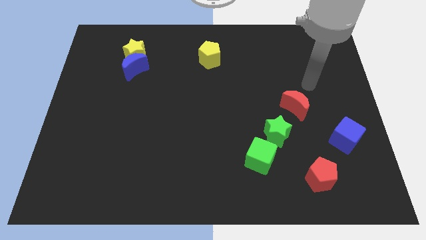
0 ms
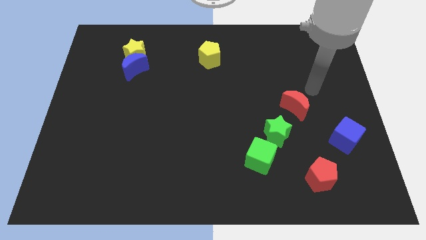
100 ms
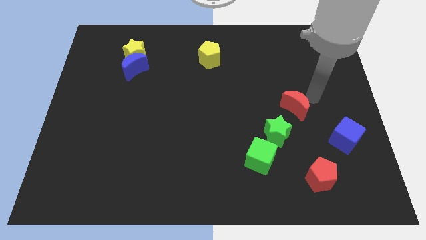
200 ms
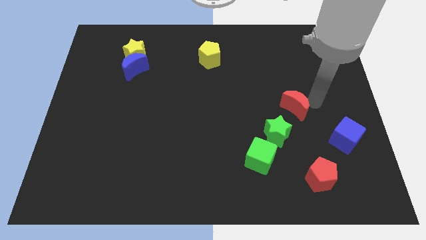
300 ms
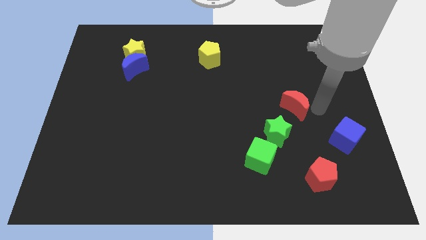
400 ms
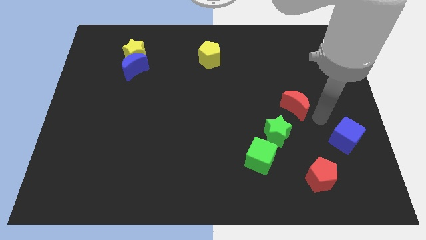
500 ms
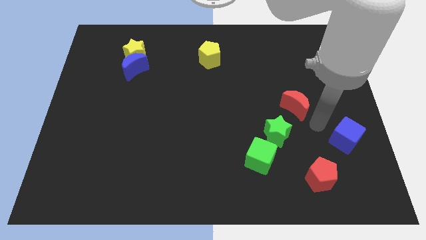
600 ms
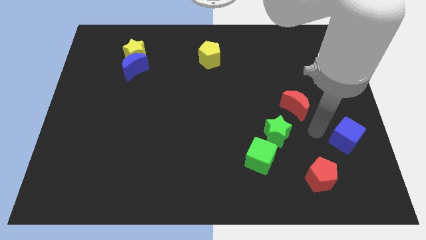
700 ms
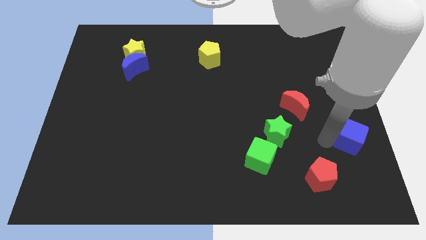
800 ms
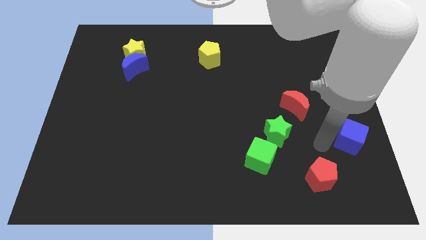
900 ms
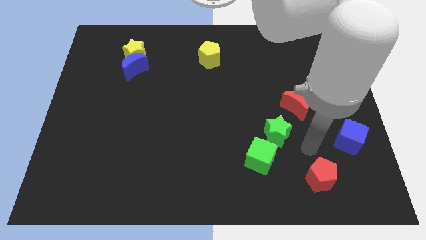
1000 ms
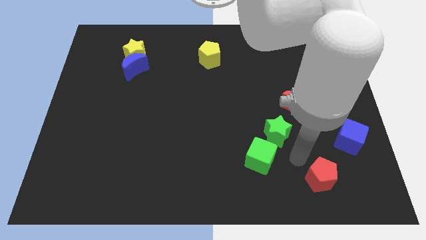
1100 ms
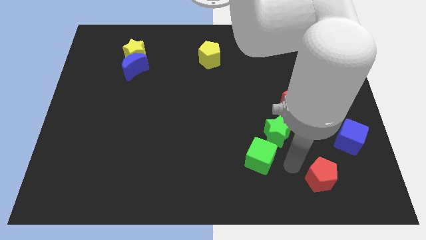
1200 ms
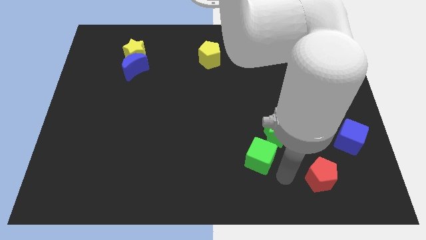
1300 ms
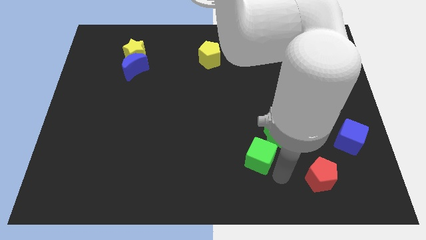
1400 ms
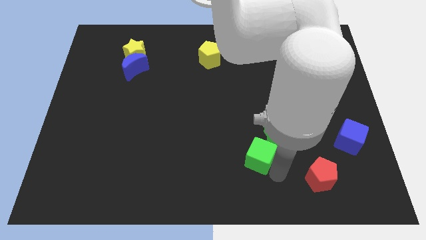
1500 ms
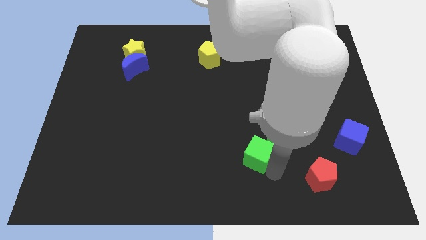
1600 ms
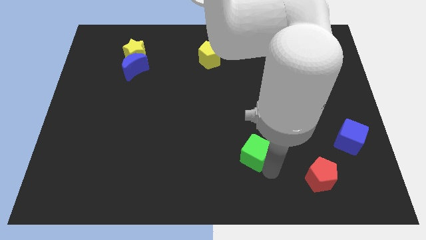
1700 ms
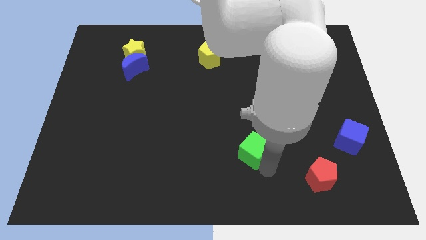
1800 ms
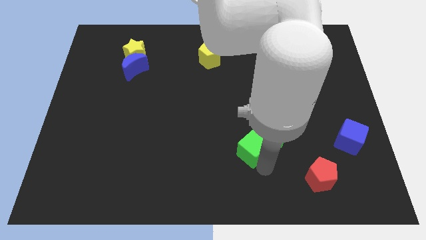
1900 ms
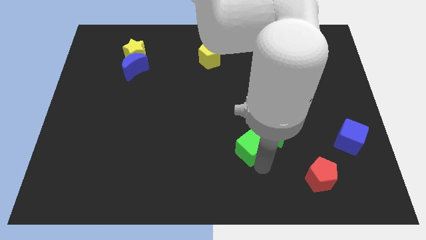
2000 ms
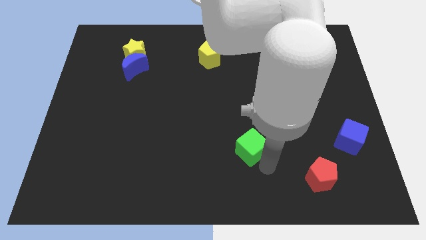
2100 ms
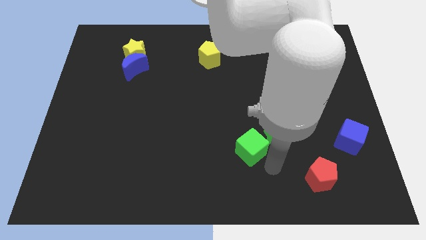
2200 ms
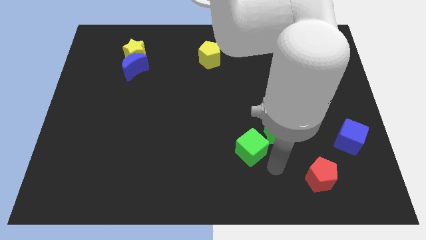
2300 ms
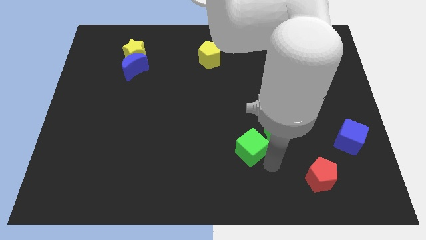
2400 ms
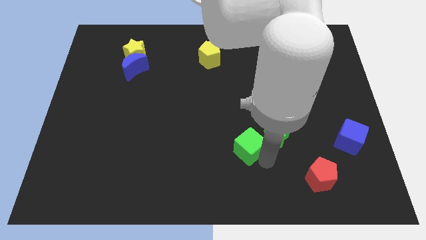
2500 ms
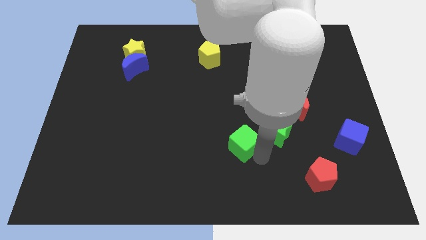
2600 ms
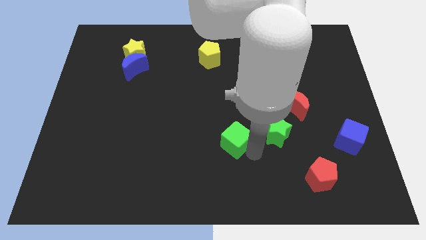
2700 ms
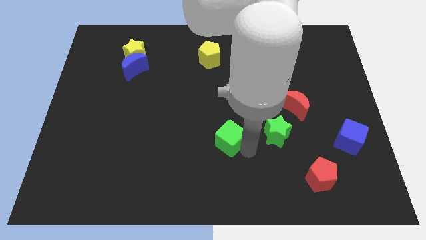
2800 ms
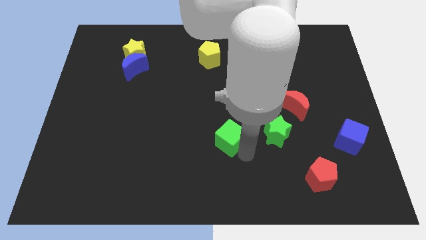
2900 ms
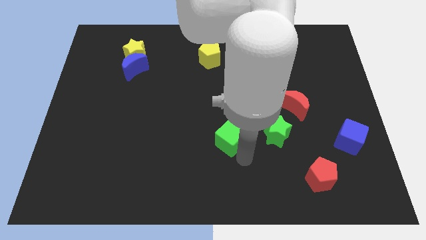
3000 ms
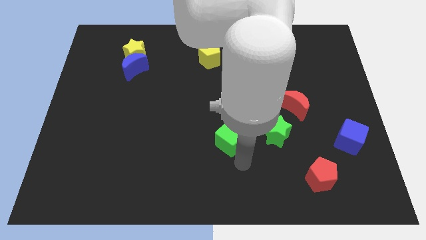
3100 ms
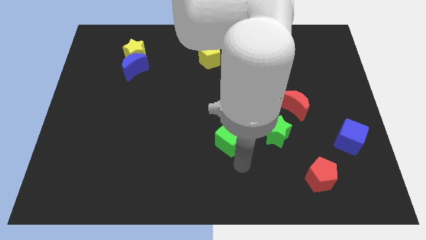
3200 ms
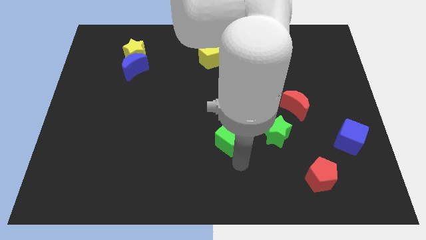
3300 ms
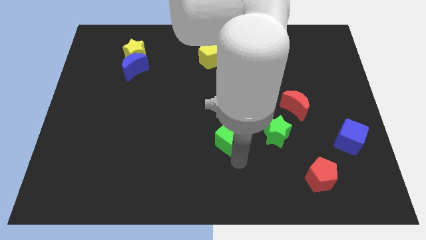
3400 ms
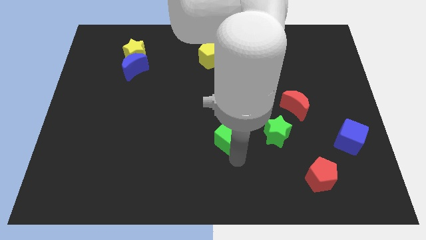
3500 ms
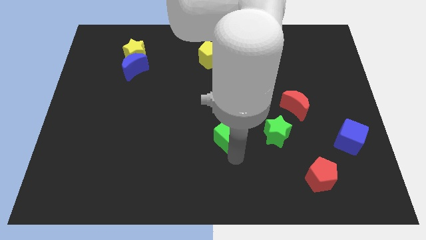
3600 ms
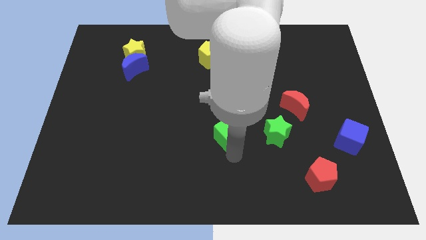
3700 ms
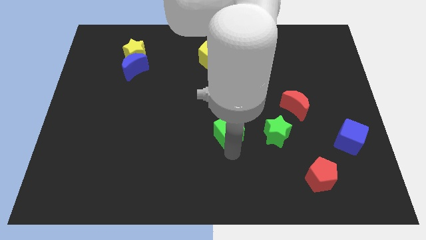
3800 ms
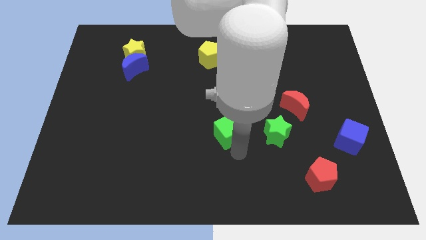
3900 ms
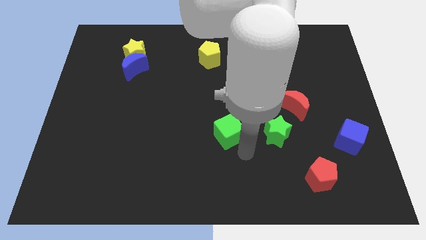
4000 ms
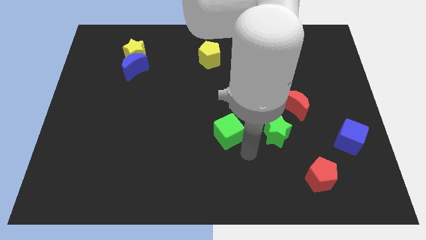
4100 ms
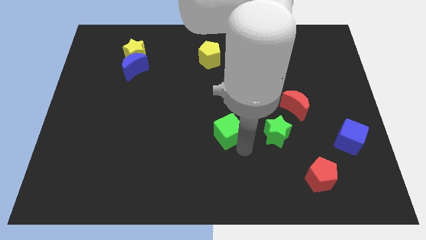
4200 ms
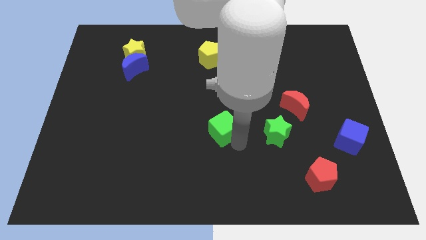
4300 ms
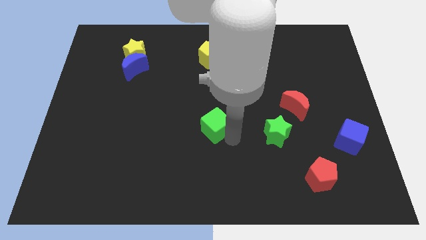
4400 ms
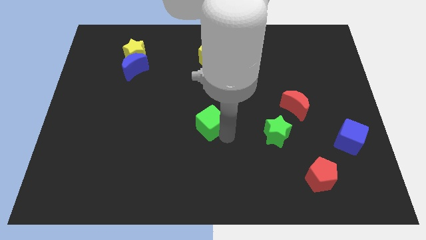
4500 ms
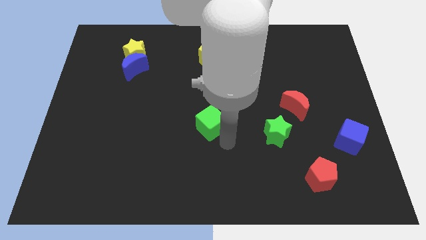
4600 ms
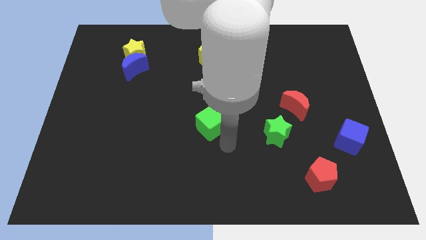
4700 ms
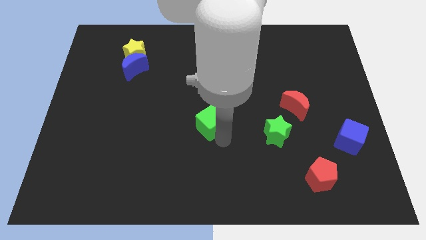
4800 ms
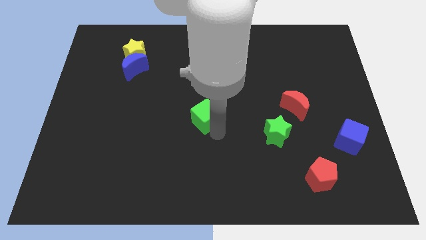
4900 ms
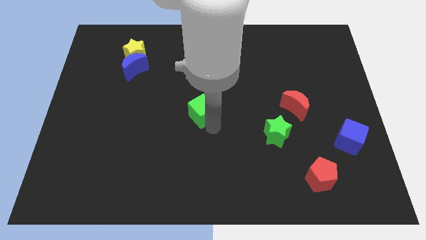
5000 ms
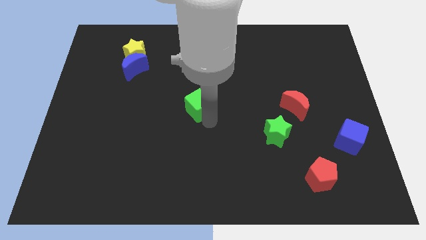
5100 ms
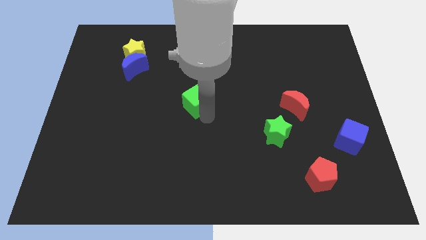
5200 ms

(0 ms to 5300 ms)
move the green cube diagonally up and to the left

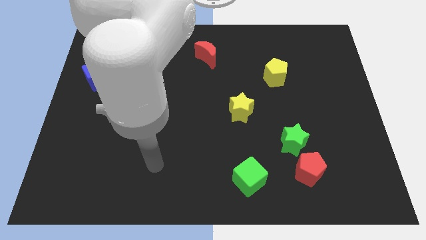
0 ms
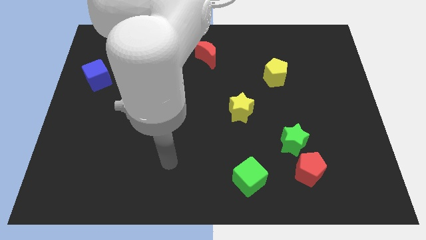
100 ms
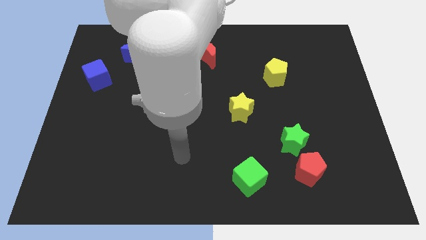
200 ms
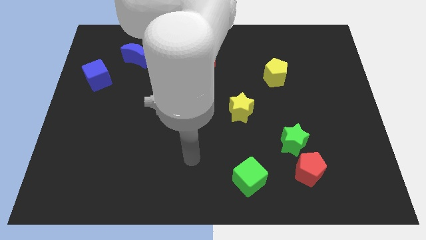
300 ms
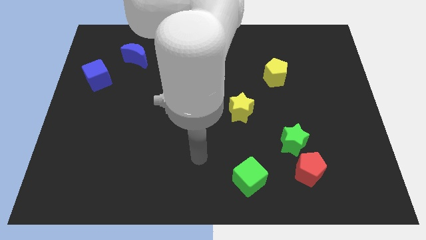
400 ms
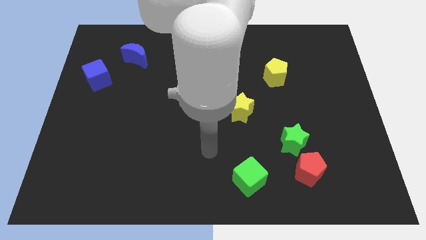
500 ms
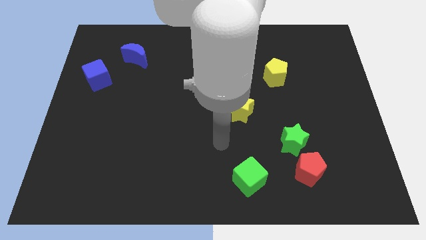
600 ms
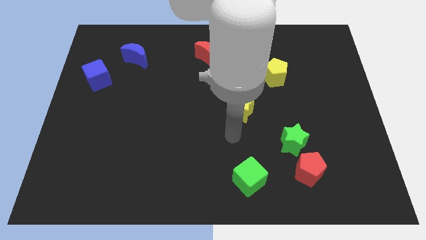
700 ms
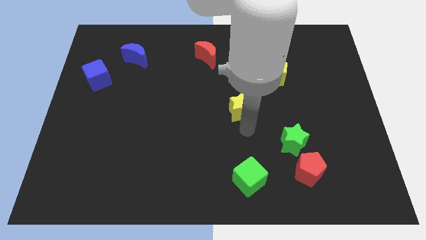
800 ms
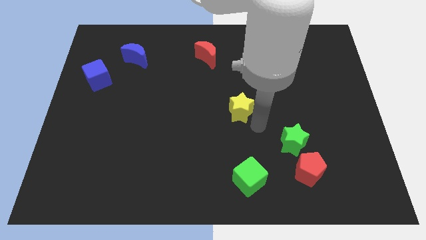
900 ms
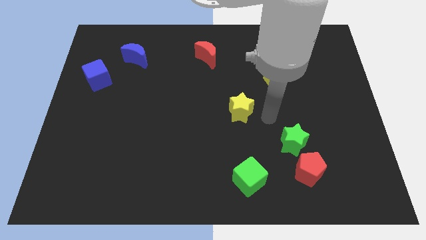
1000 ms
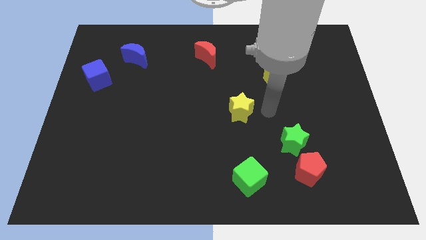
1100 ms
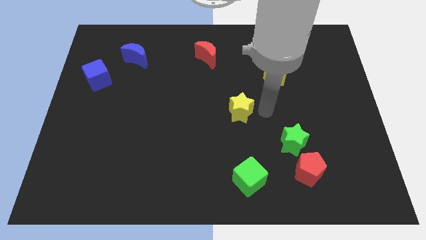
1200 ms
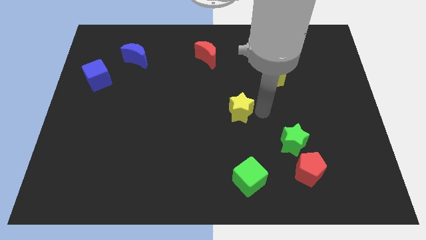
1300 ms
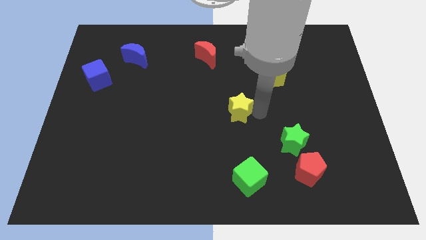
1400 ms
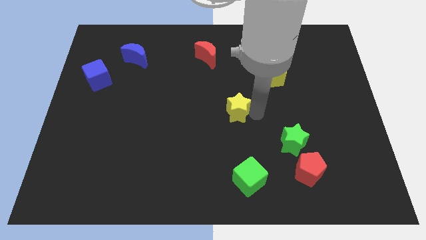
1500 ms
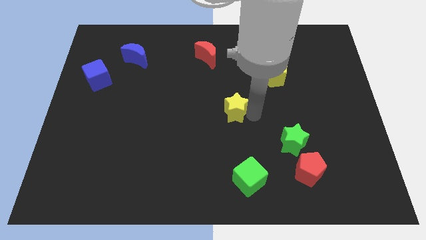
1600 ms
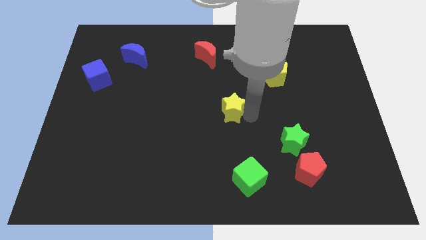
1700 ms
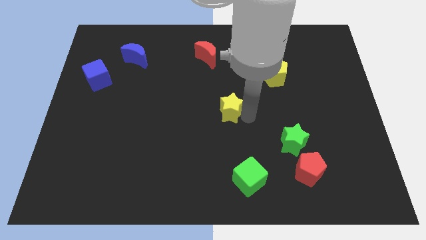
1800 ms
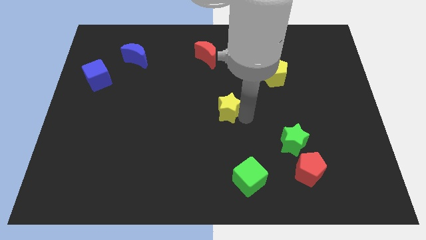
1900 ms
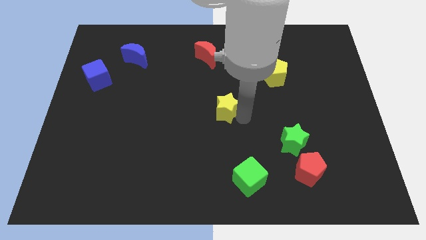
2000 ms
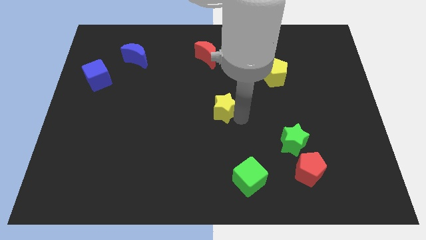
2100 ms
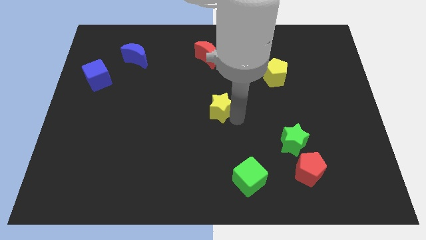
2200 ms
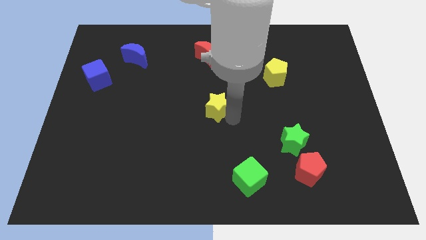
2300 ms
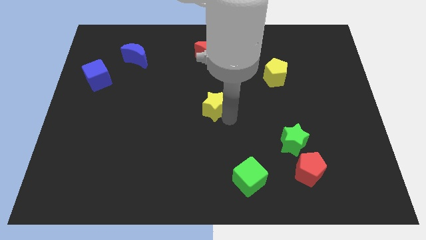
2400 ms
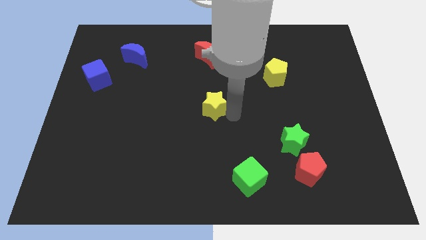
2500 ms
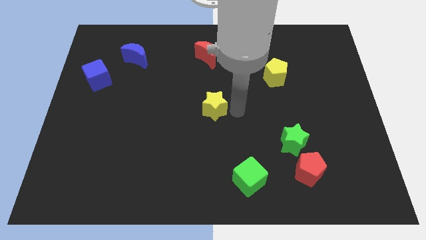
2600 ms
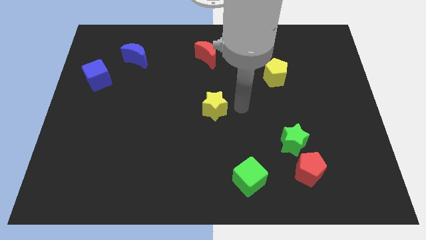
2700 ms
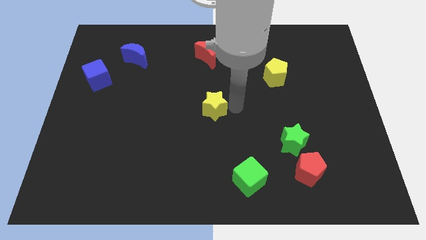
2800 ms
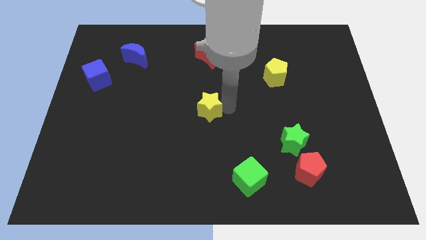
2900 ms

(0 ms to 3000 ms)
slightly move the yellow star left
